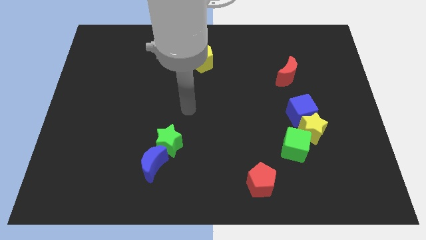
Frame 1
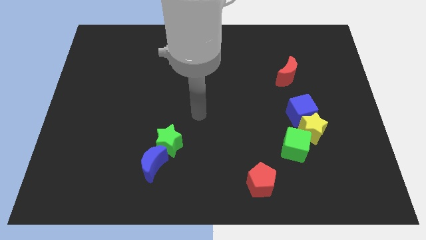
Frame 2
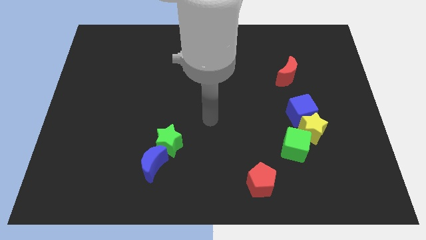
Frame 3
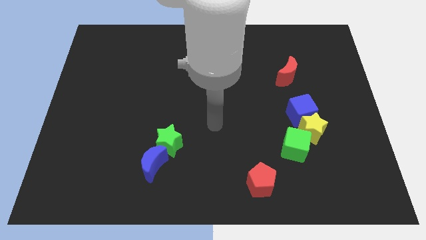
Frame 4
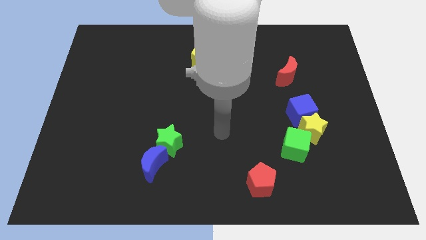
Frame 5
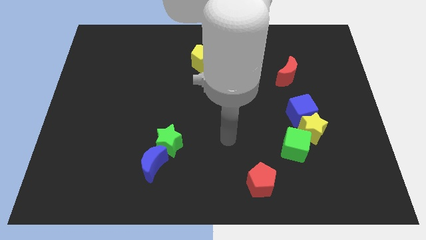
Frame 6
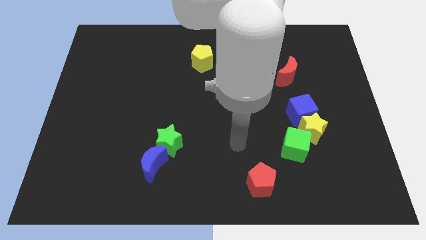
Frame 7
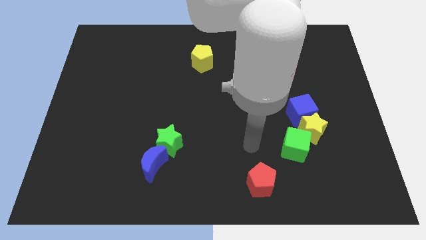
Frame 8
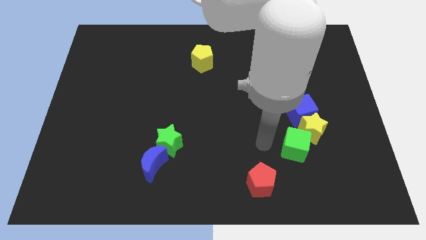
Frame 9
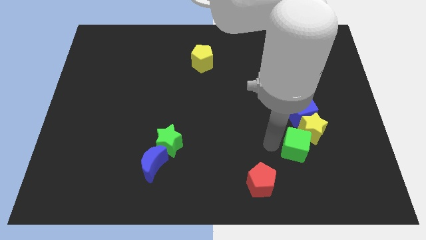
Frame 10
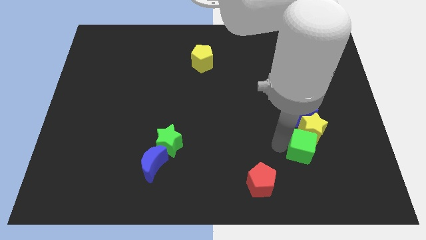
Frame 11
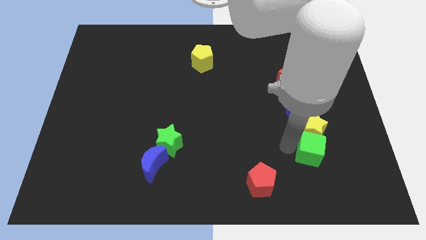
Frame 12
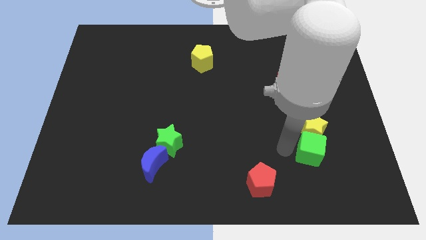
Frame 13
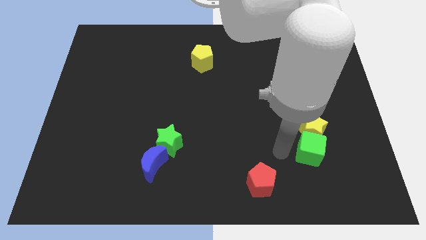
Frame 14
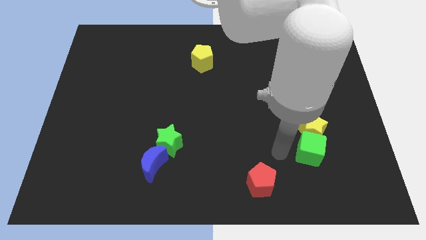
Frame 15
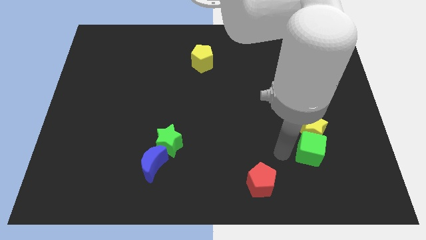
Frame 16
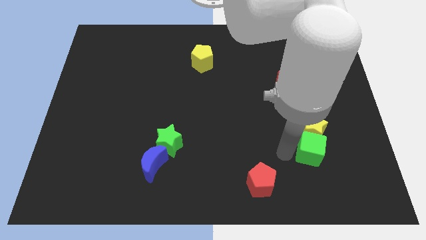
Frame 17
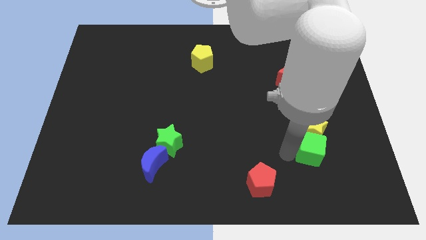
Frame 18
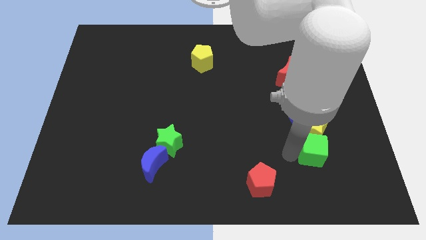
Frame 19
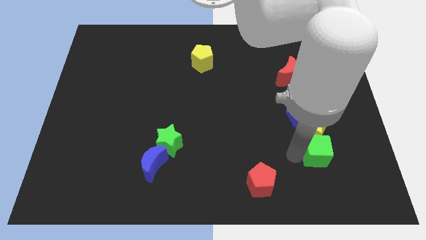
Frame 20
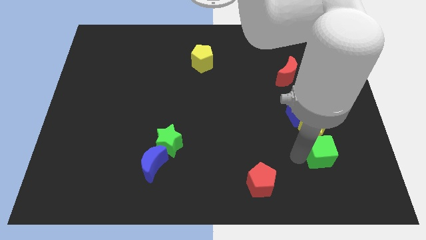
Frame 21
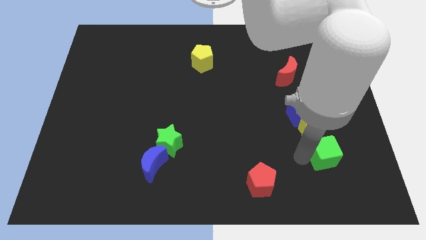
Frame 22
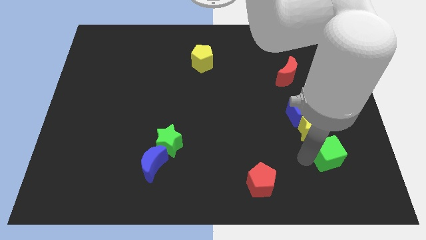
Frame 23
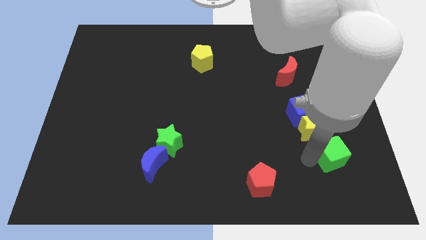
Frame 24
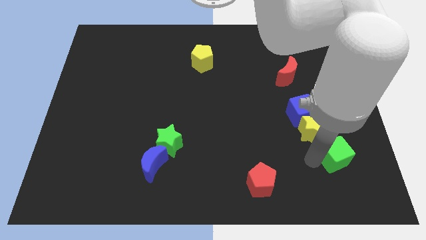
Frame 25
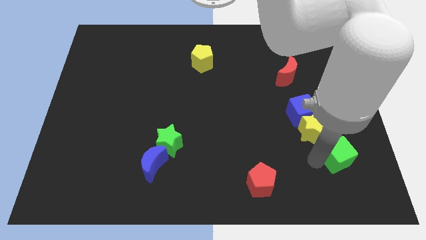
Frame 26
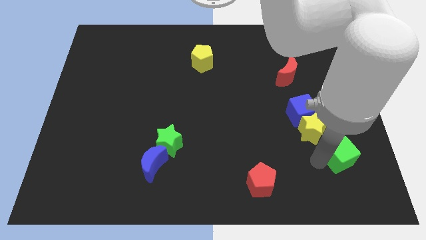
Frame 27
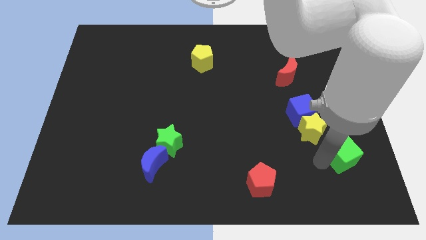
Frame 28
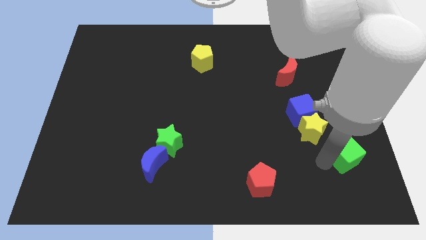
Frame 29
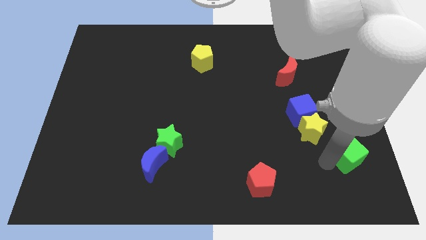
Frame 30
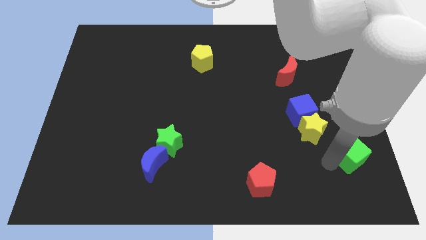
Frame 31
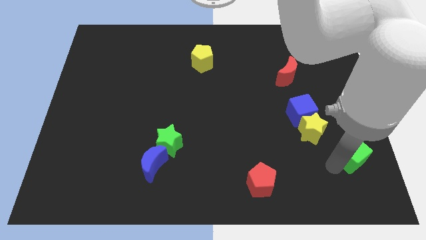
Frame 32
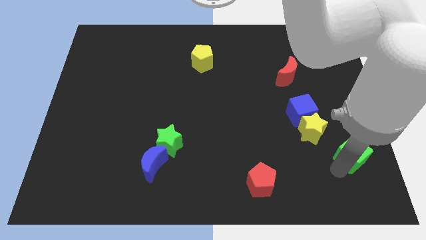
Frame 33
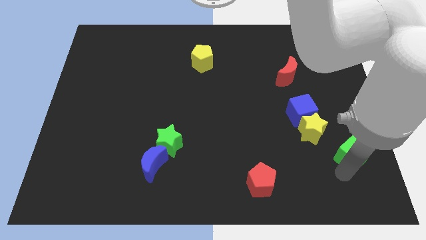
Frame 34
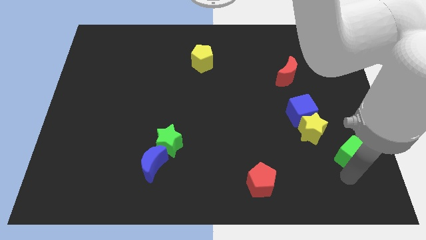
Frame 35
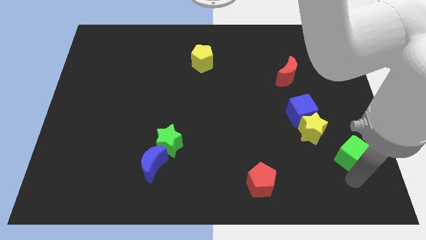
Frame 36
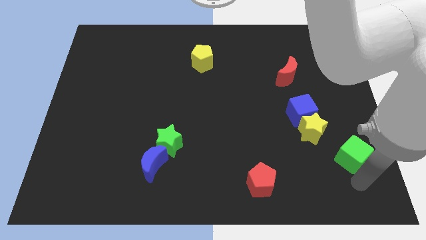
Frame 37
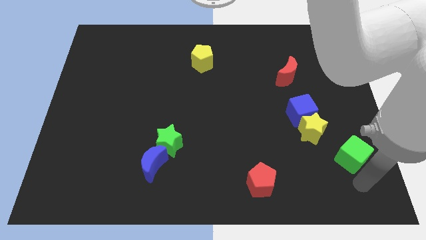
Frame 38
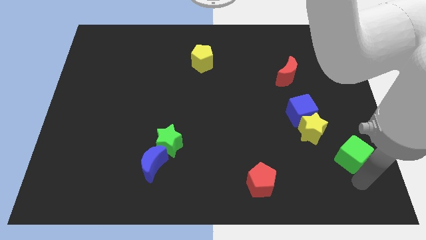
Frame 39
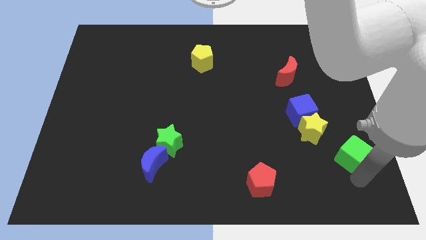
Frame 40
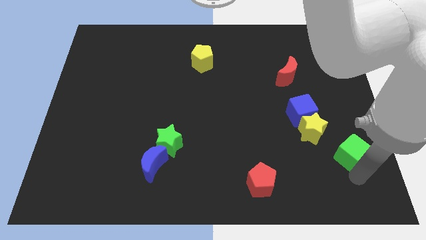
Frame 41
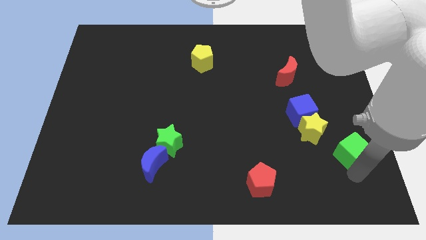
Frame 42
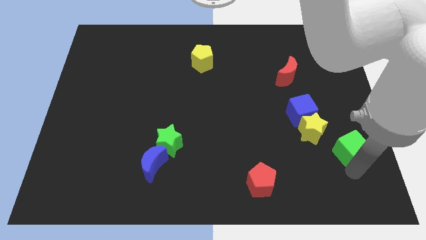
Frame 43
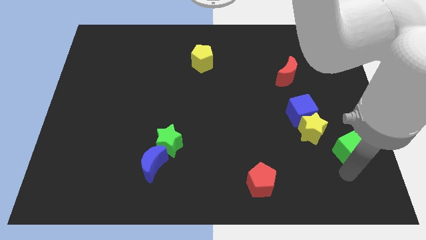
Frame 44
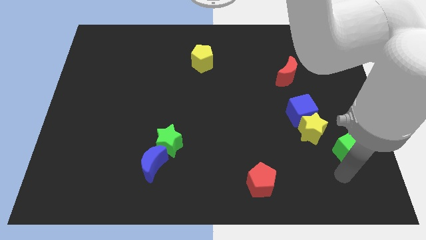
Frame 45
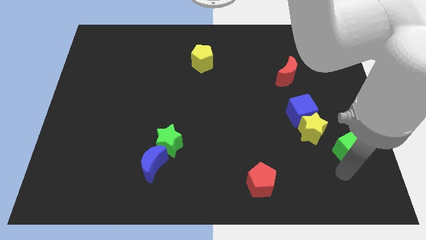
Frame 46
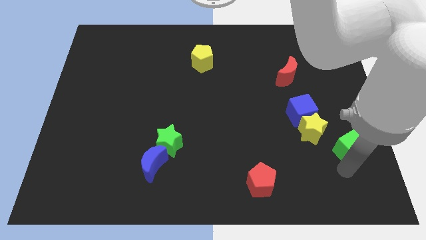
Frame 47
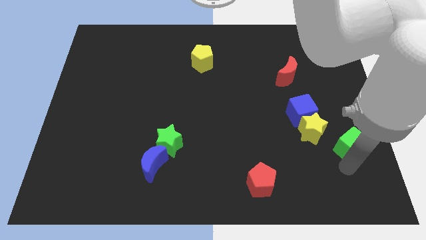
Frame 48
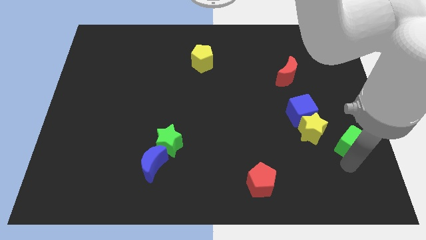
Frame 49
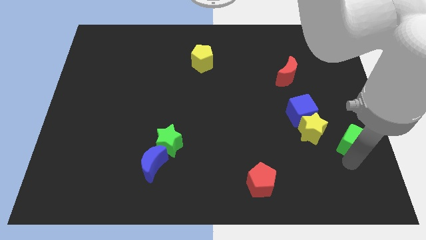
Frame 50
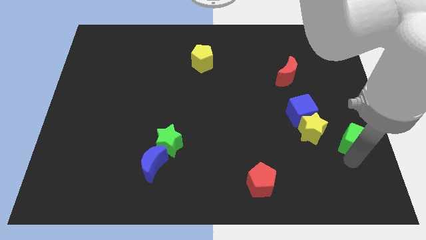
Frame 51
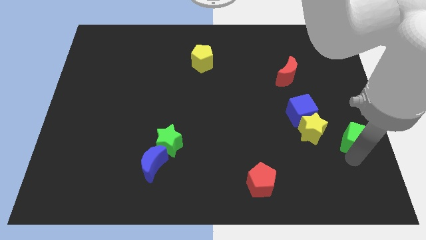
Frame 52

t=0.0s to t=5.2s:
slide the green cube to the right side of the board

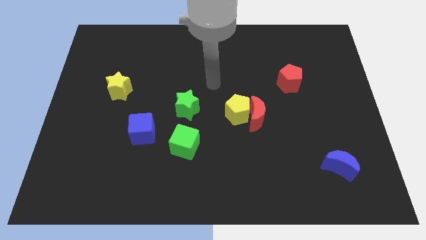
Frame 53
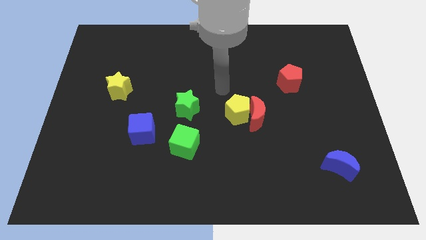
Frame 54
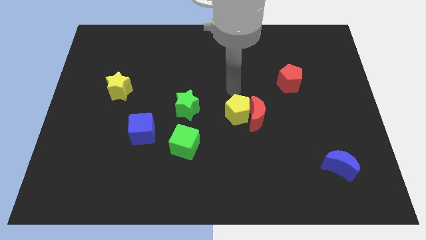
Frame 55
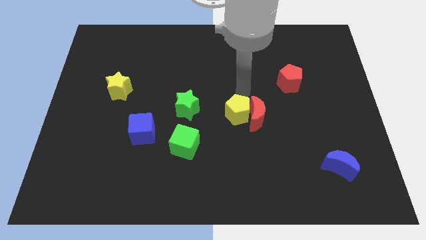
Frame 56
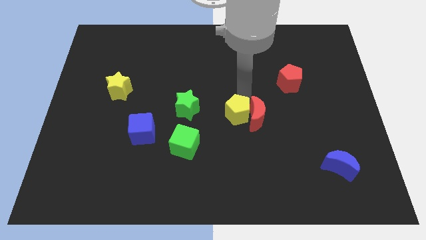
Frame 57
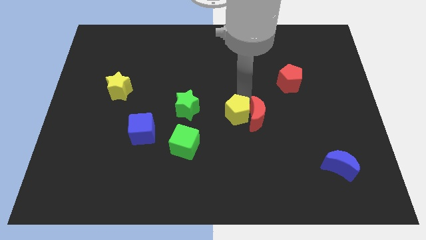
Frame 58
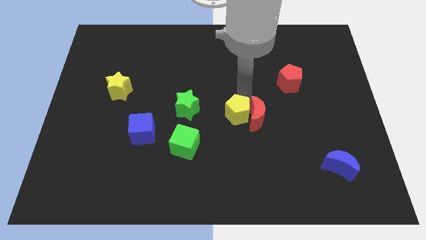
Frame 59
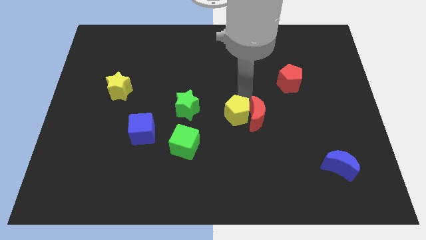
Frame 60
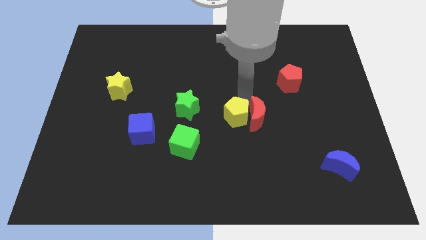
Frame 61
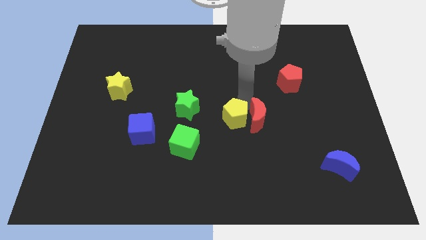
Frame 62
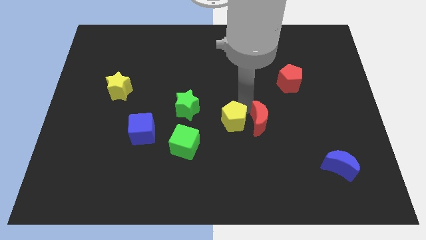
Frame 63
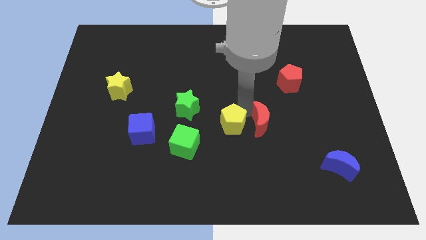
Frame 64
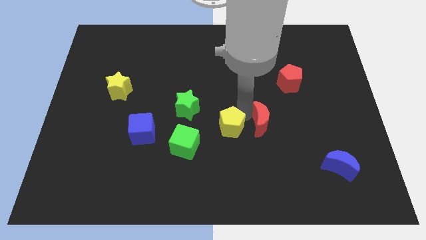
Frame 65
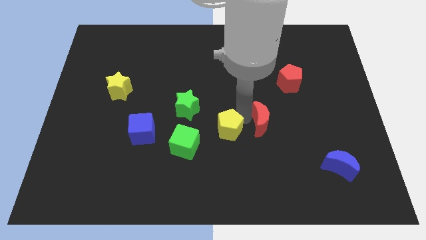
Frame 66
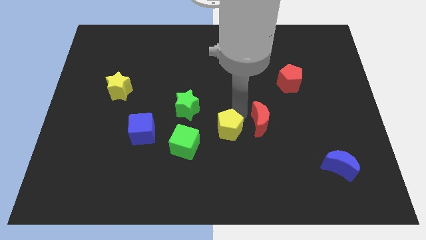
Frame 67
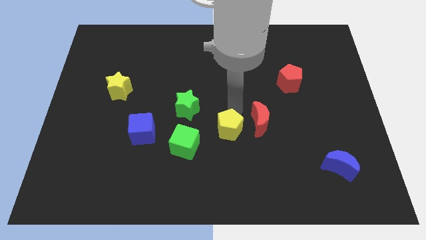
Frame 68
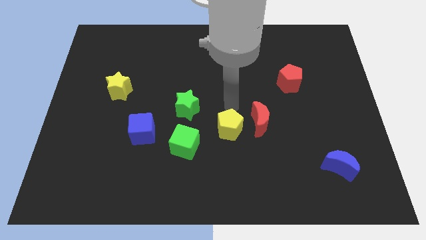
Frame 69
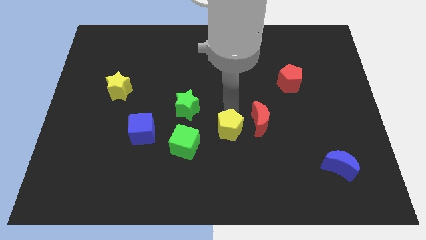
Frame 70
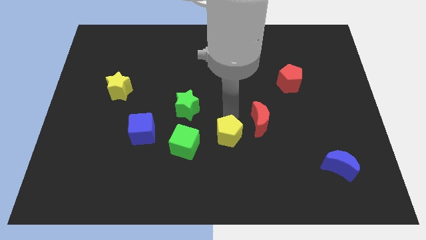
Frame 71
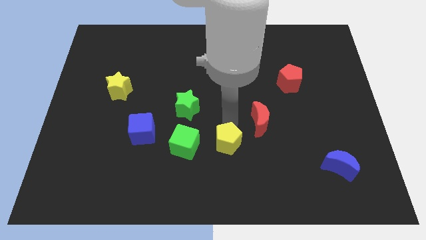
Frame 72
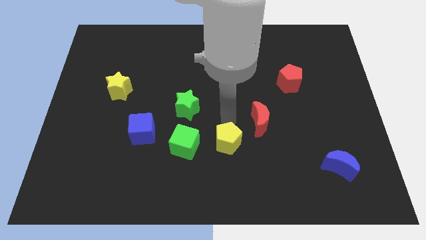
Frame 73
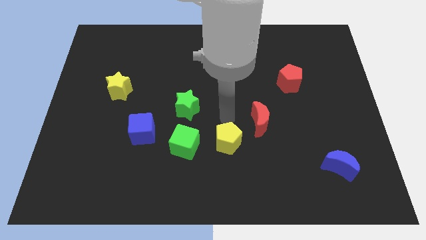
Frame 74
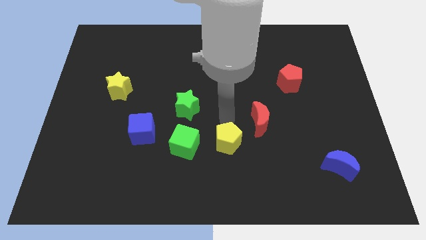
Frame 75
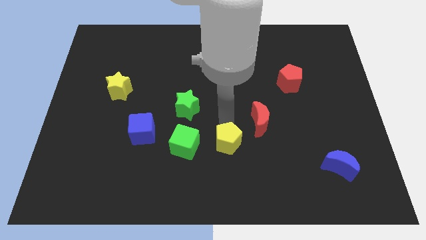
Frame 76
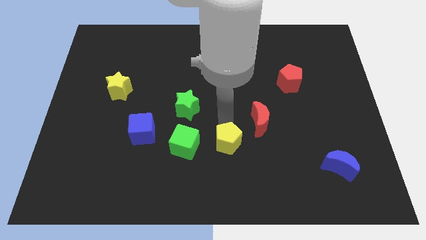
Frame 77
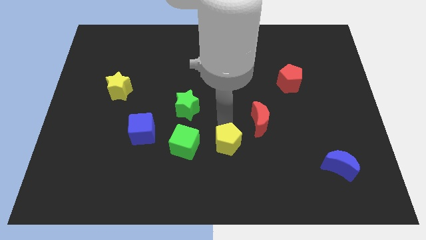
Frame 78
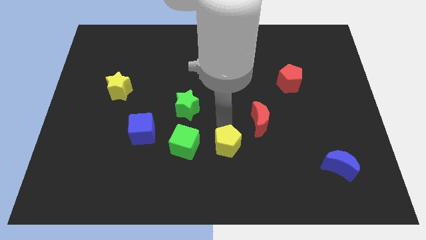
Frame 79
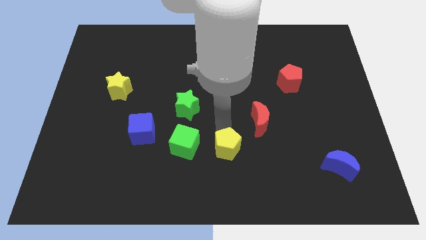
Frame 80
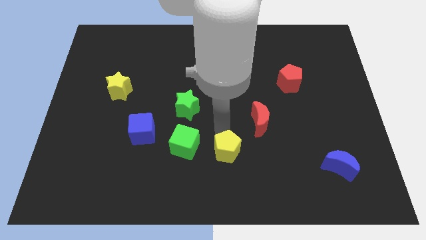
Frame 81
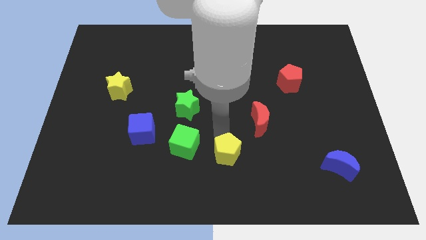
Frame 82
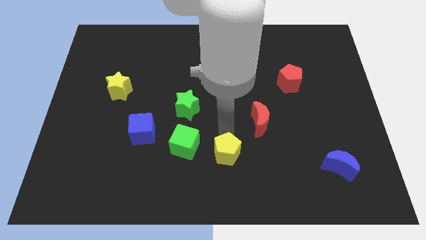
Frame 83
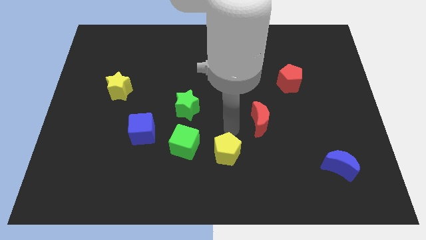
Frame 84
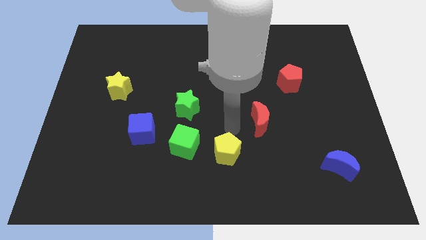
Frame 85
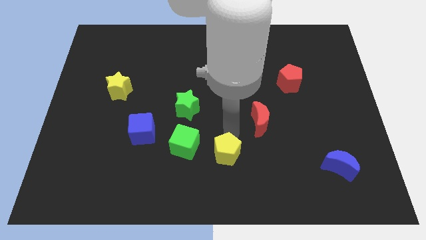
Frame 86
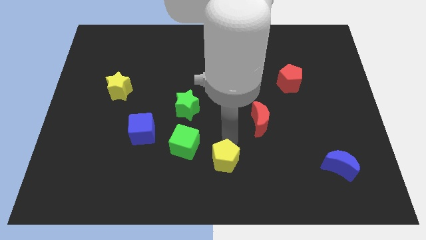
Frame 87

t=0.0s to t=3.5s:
push the yellow pentagon to the bottom side
